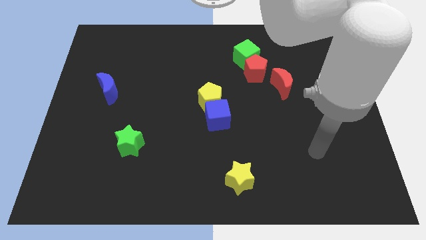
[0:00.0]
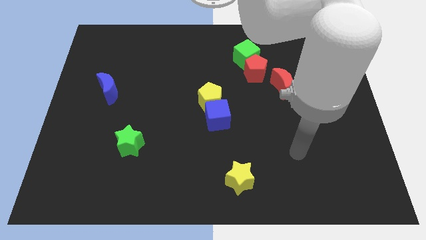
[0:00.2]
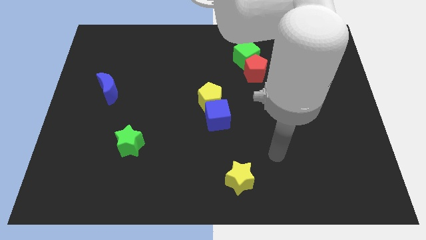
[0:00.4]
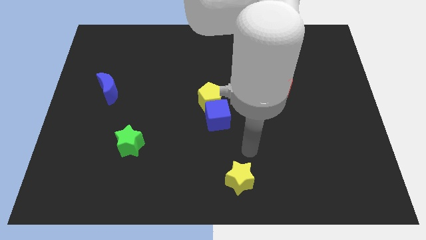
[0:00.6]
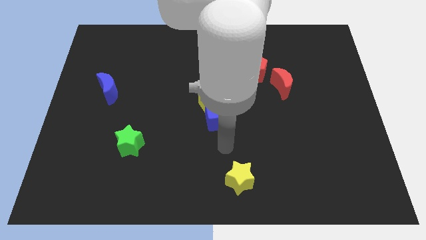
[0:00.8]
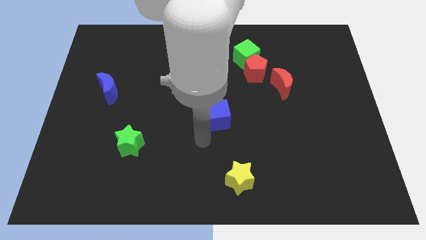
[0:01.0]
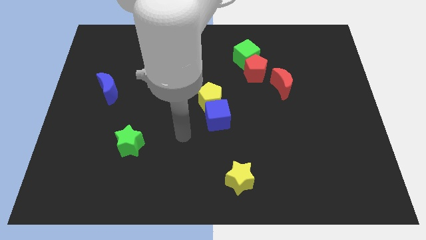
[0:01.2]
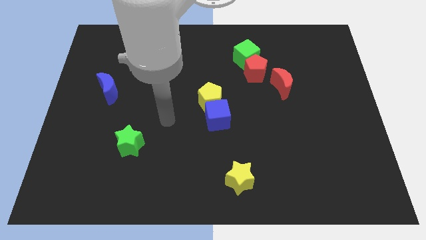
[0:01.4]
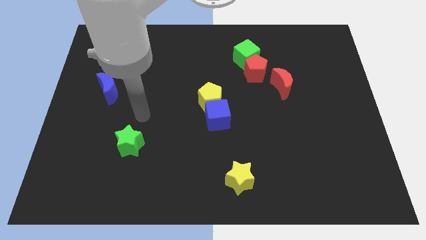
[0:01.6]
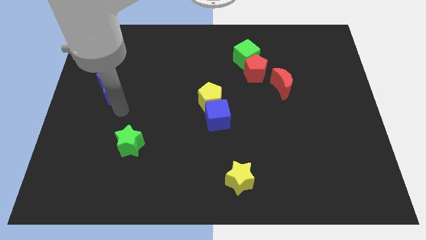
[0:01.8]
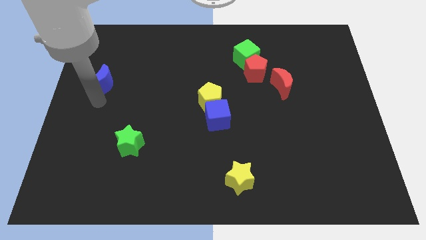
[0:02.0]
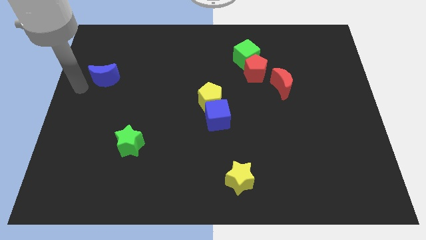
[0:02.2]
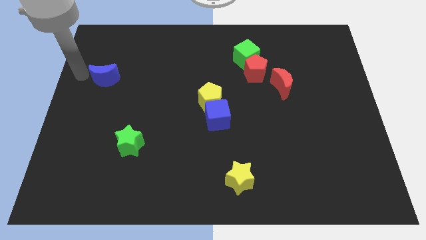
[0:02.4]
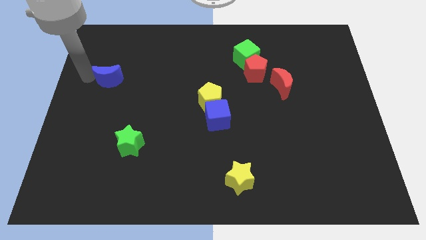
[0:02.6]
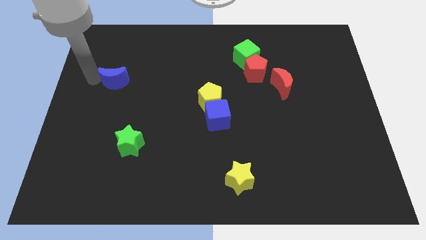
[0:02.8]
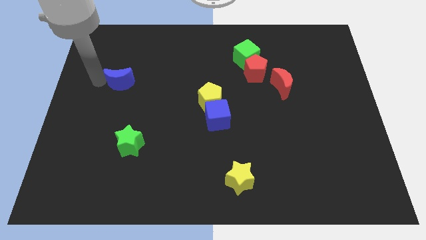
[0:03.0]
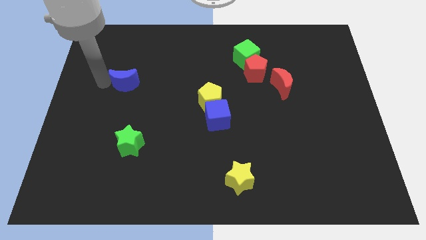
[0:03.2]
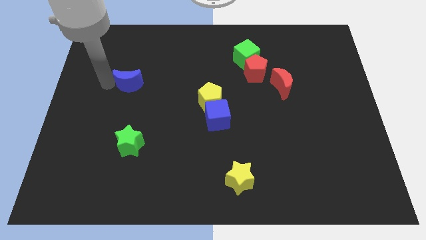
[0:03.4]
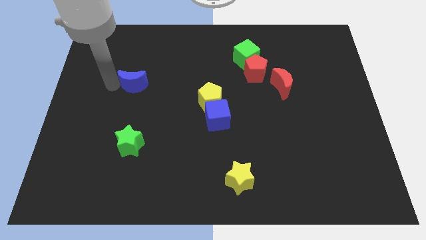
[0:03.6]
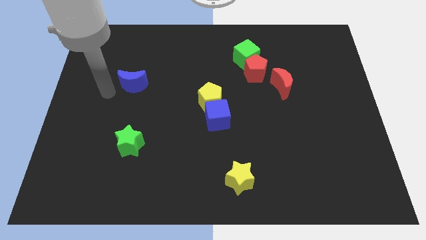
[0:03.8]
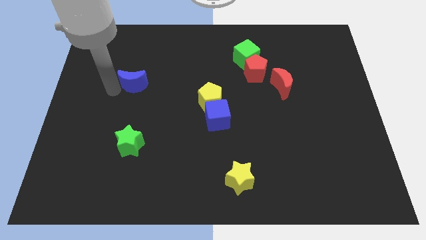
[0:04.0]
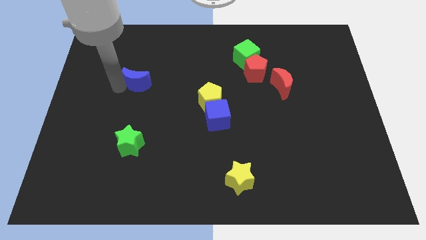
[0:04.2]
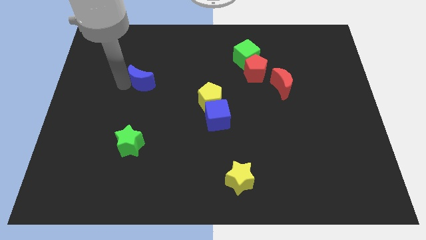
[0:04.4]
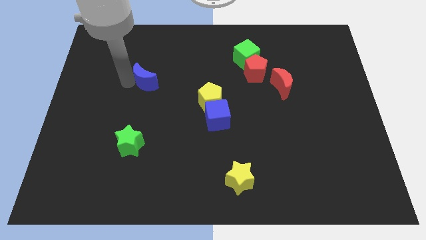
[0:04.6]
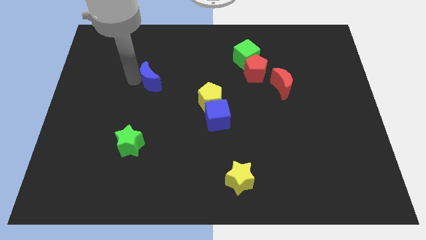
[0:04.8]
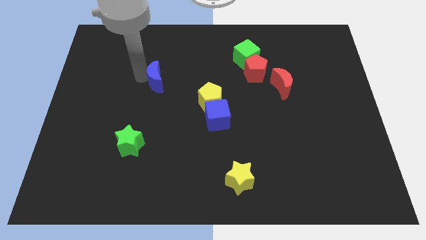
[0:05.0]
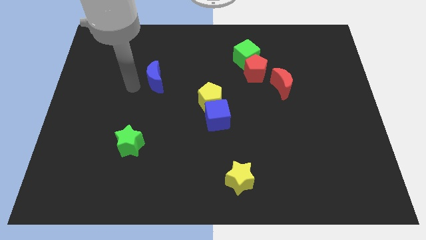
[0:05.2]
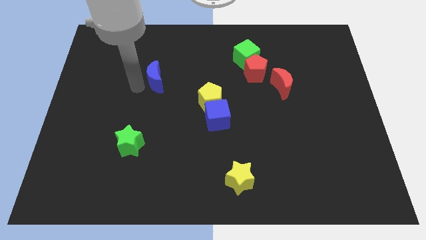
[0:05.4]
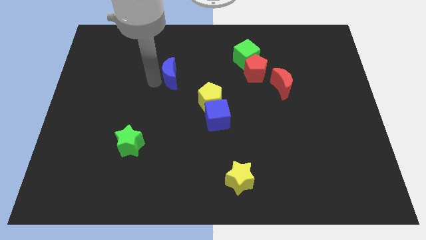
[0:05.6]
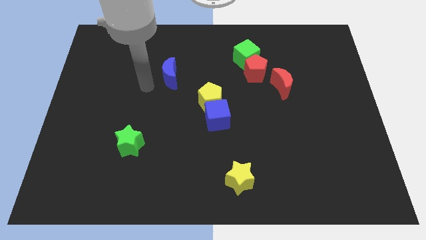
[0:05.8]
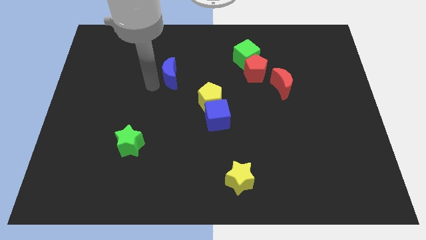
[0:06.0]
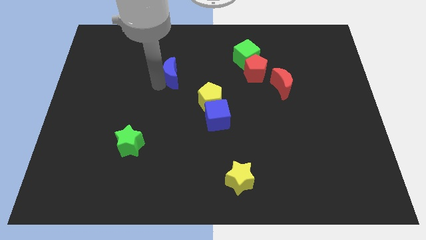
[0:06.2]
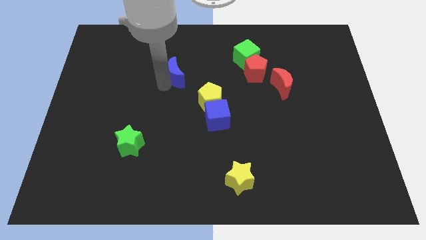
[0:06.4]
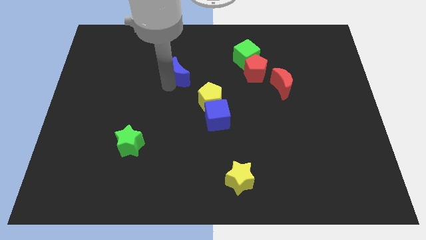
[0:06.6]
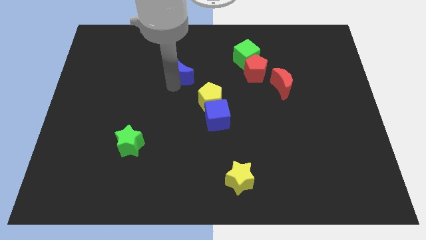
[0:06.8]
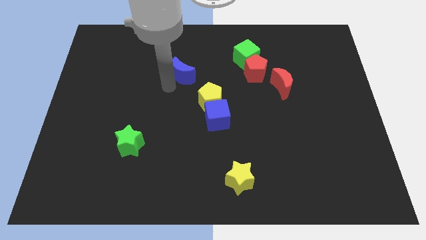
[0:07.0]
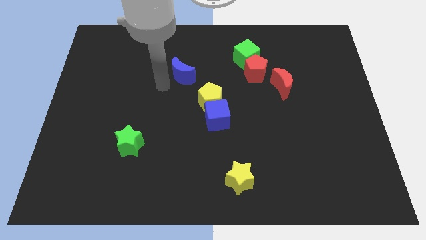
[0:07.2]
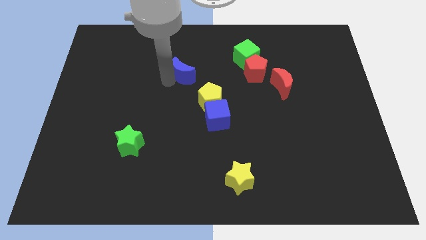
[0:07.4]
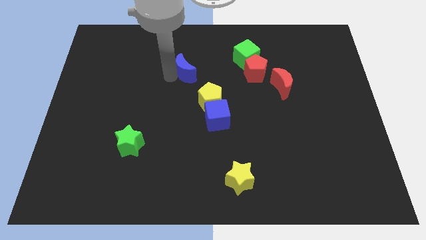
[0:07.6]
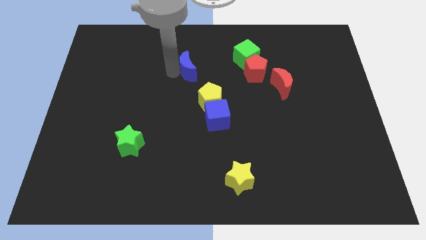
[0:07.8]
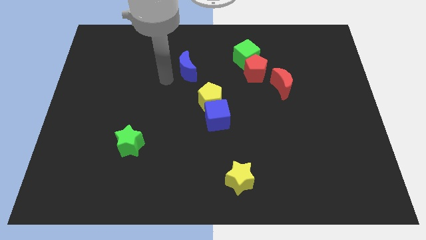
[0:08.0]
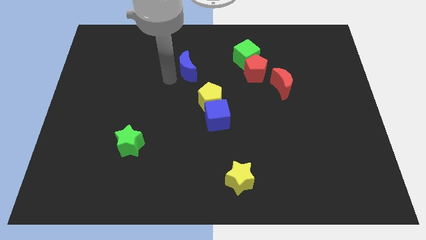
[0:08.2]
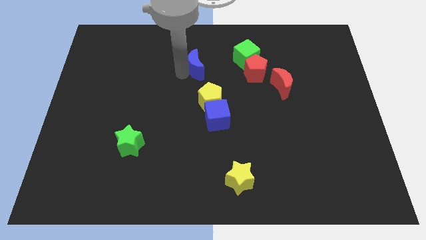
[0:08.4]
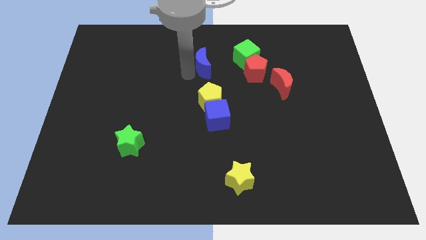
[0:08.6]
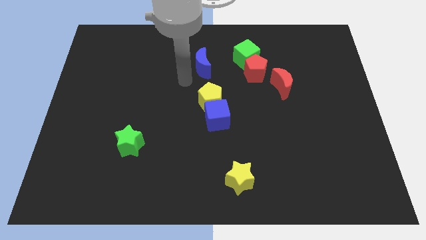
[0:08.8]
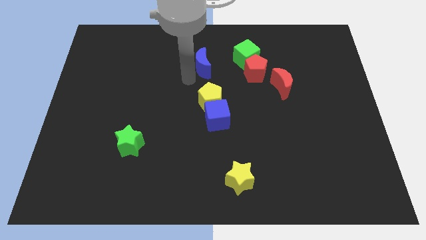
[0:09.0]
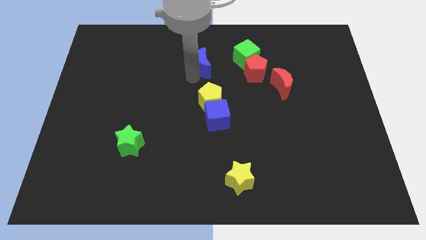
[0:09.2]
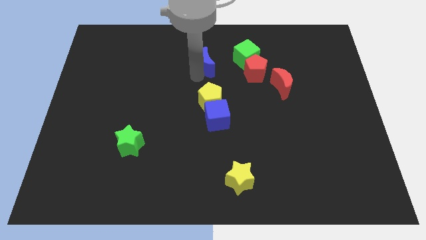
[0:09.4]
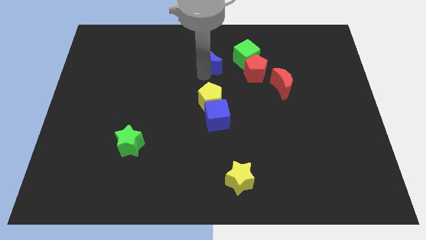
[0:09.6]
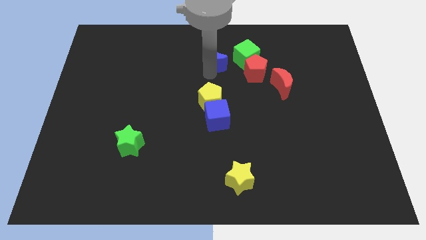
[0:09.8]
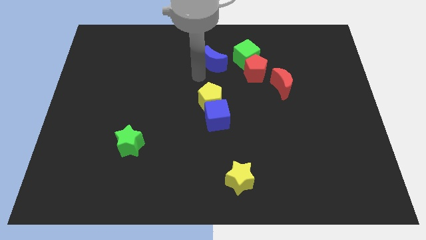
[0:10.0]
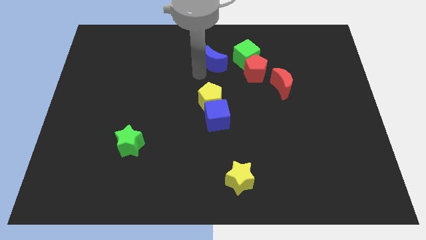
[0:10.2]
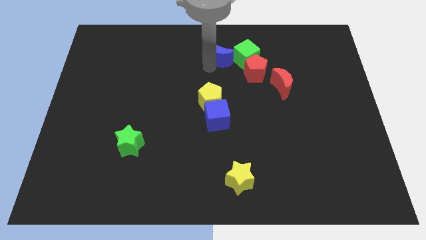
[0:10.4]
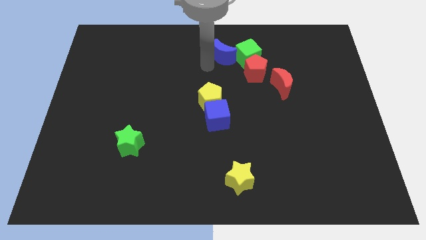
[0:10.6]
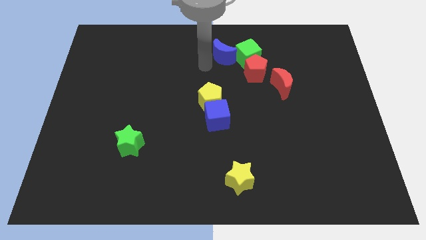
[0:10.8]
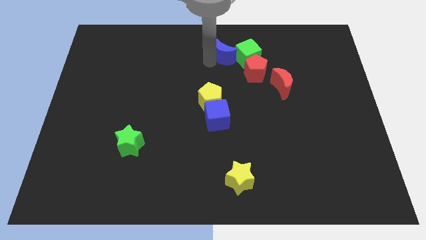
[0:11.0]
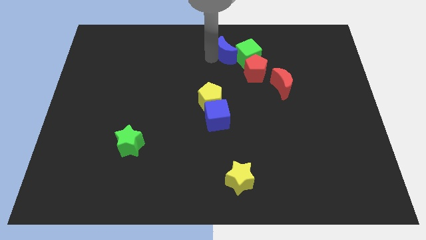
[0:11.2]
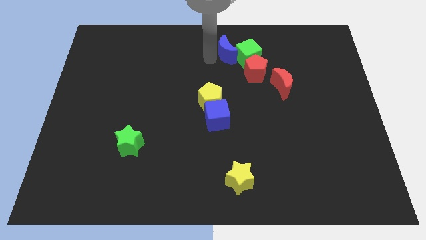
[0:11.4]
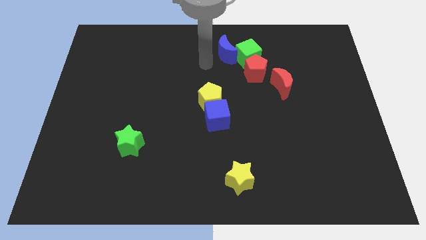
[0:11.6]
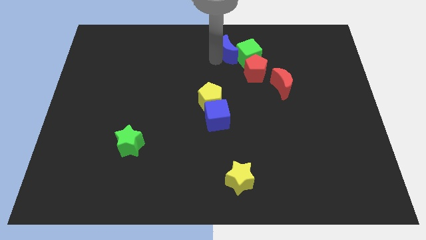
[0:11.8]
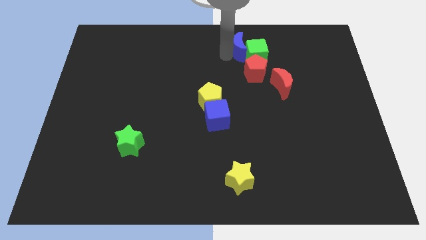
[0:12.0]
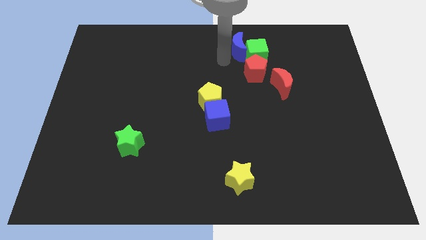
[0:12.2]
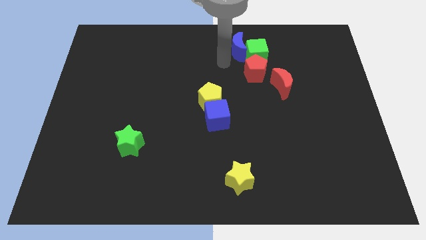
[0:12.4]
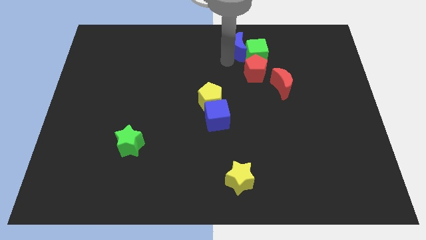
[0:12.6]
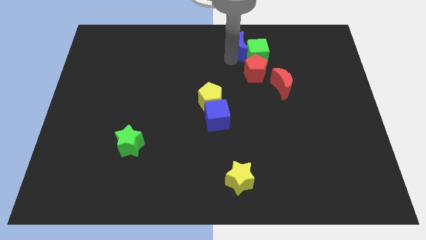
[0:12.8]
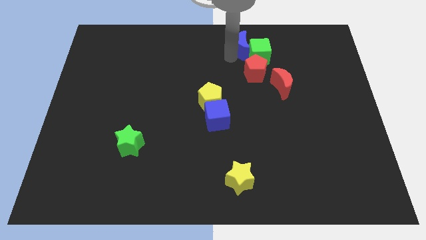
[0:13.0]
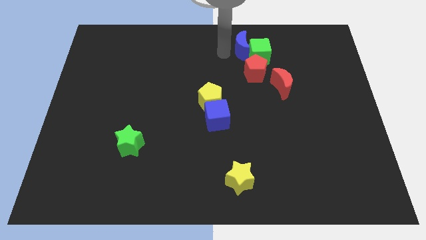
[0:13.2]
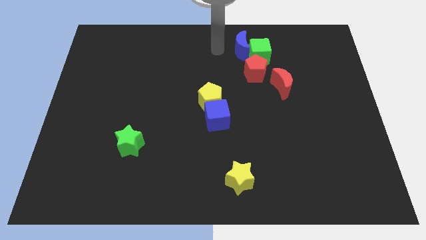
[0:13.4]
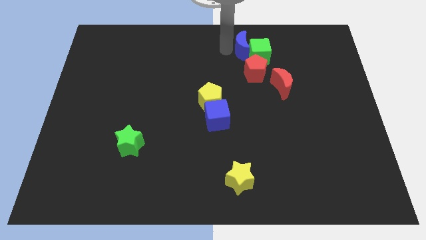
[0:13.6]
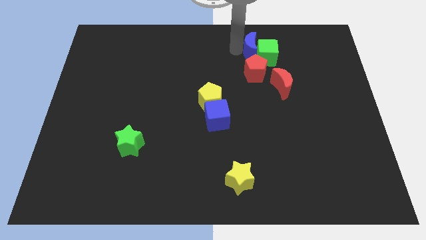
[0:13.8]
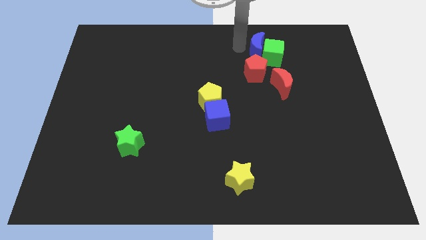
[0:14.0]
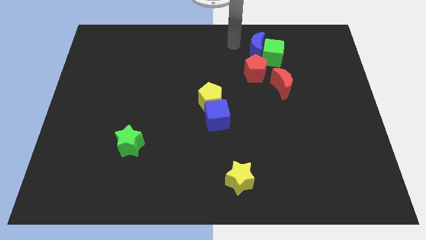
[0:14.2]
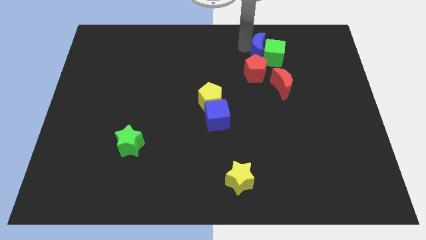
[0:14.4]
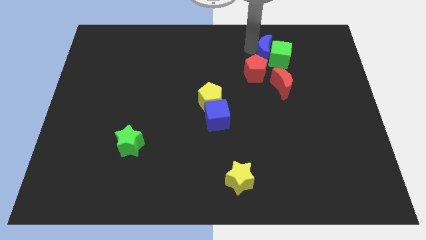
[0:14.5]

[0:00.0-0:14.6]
slide the blue moon above the red moon
